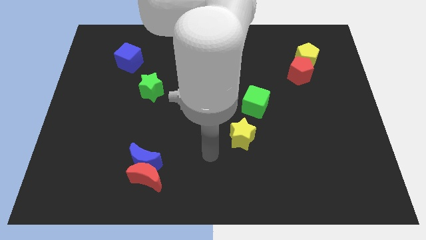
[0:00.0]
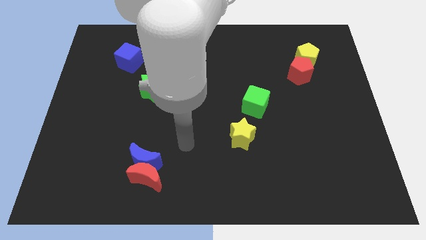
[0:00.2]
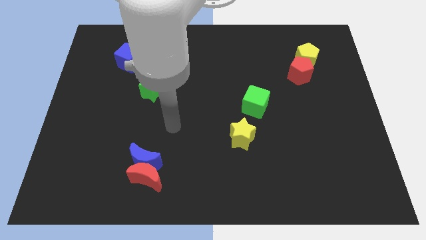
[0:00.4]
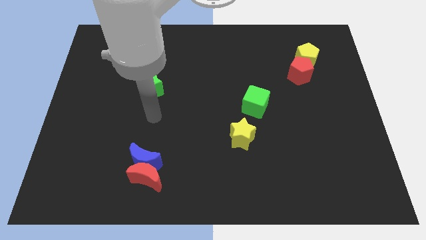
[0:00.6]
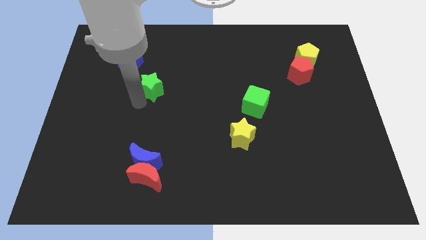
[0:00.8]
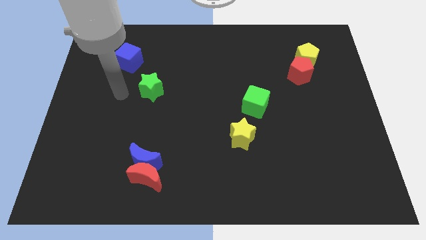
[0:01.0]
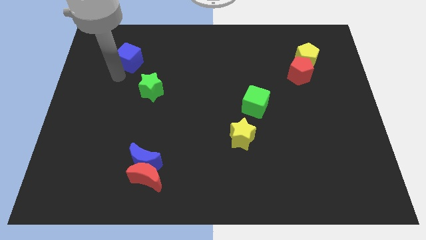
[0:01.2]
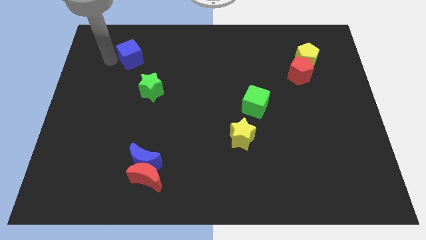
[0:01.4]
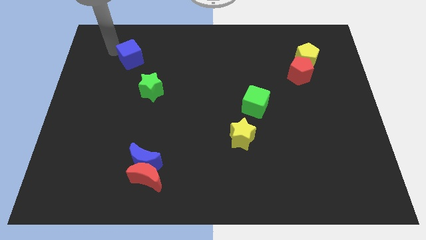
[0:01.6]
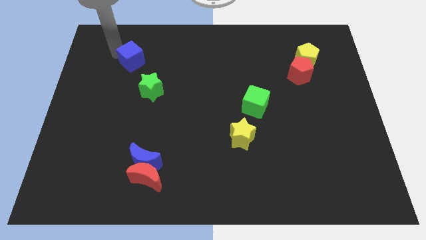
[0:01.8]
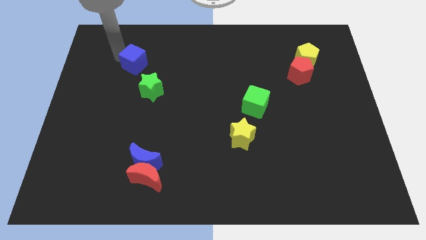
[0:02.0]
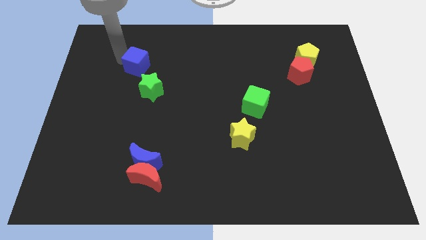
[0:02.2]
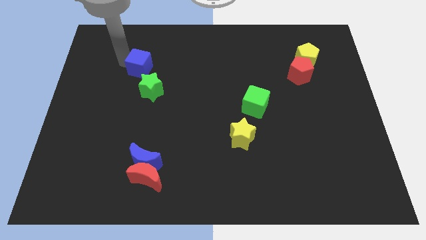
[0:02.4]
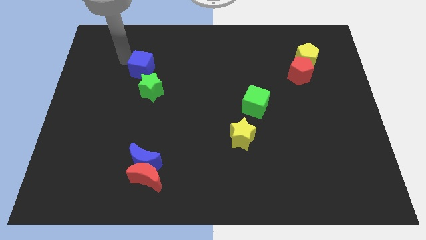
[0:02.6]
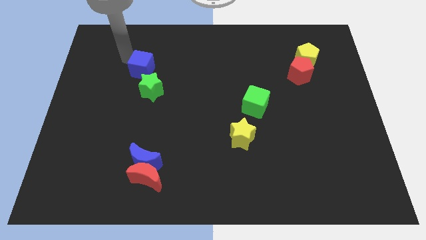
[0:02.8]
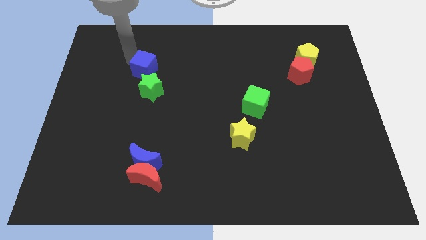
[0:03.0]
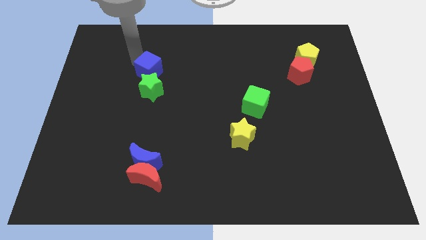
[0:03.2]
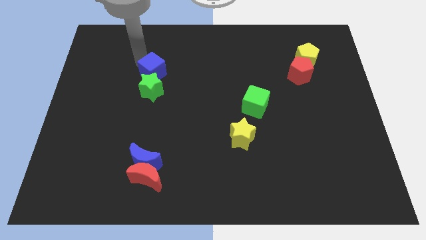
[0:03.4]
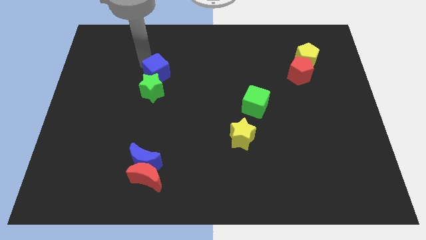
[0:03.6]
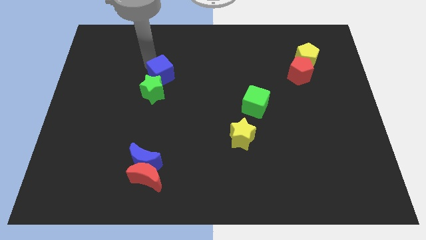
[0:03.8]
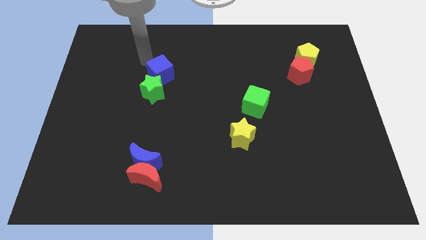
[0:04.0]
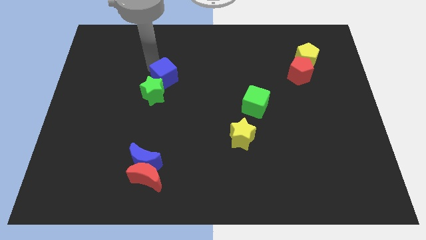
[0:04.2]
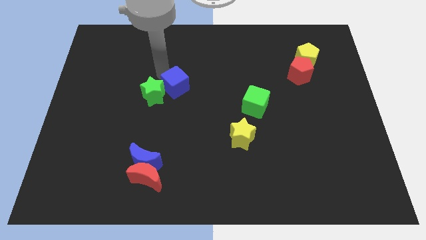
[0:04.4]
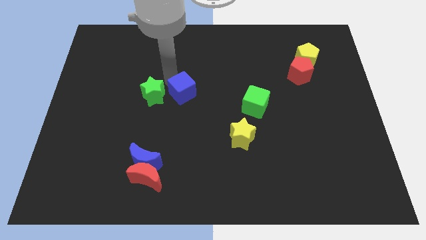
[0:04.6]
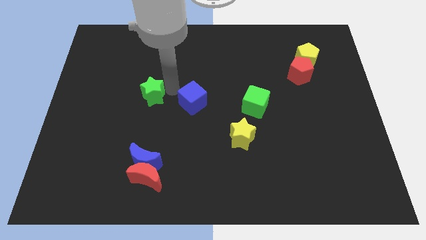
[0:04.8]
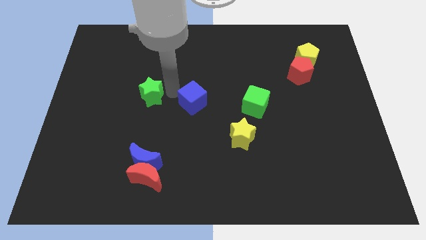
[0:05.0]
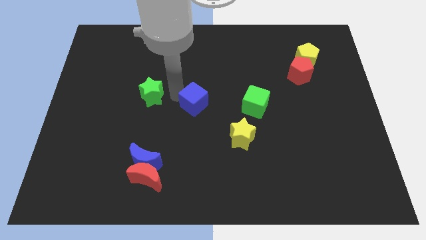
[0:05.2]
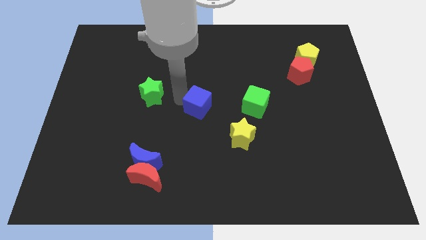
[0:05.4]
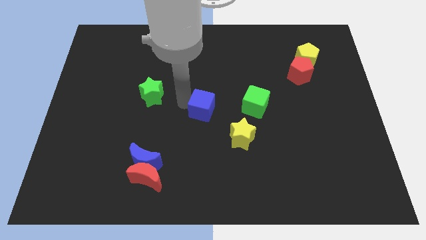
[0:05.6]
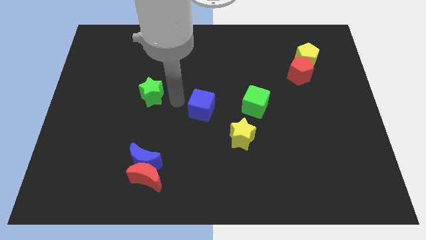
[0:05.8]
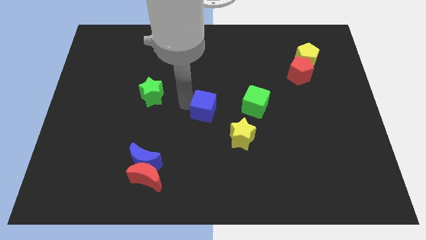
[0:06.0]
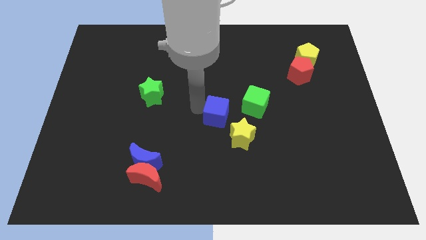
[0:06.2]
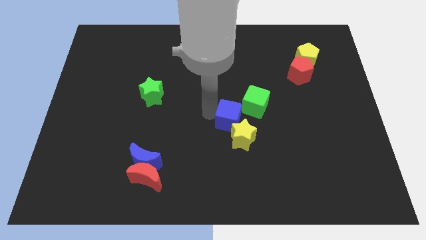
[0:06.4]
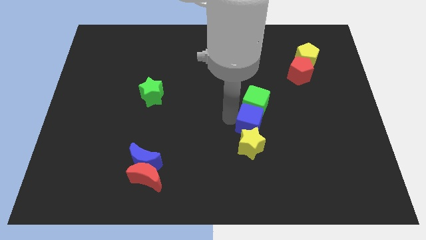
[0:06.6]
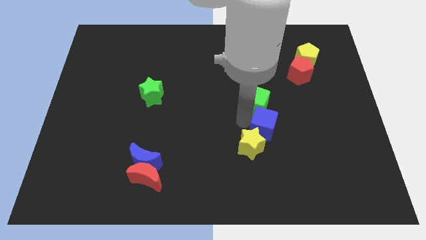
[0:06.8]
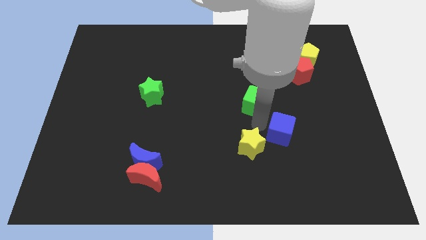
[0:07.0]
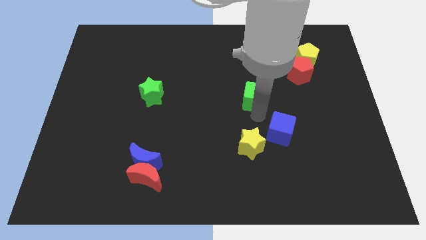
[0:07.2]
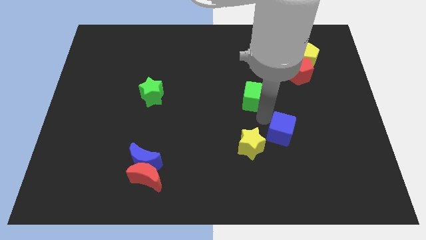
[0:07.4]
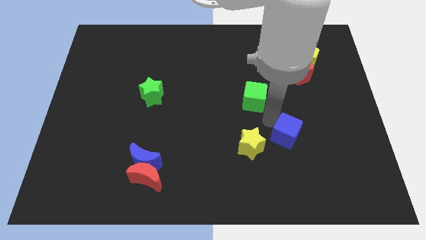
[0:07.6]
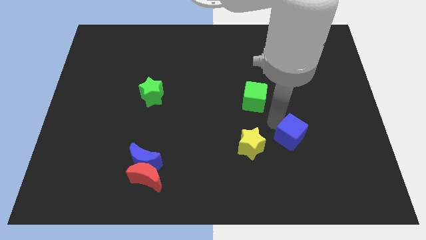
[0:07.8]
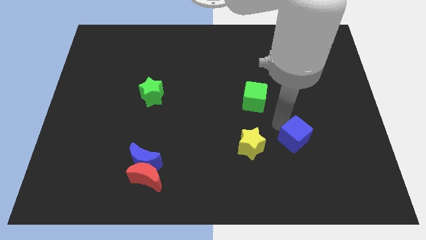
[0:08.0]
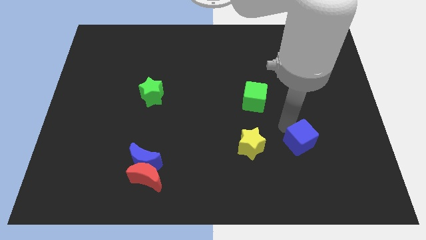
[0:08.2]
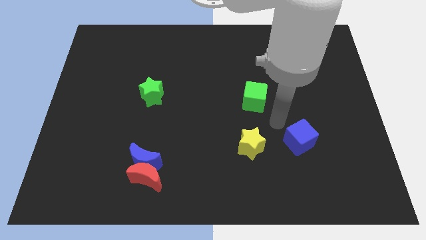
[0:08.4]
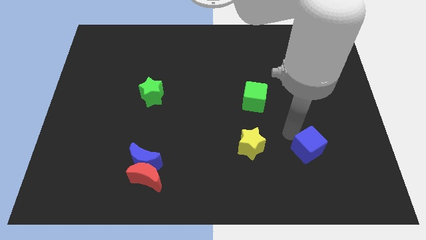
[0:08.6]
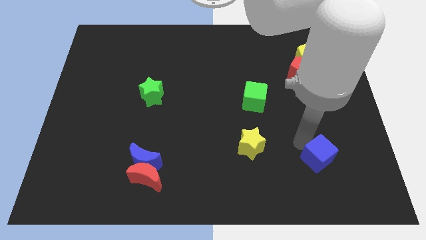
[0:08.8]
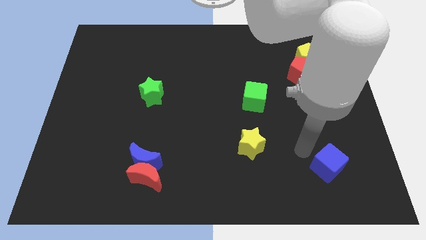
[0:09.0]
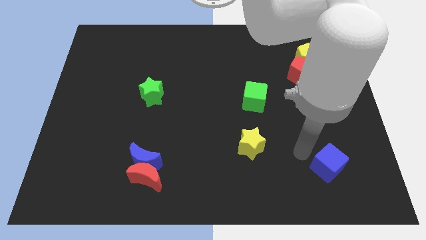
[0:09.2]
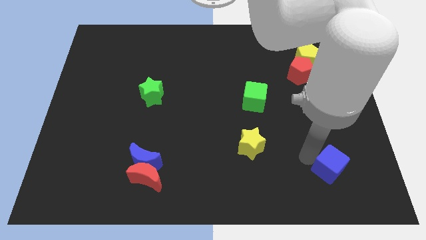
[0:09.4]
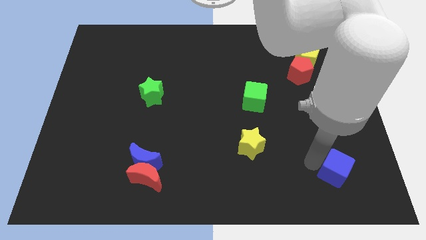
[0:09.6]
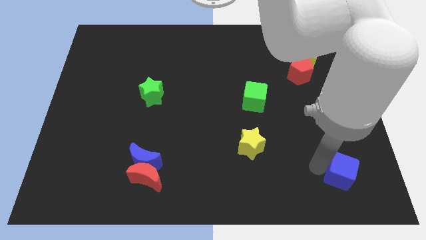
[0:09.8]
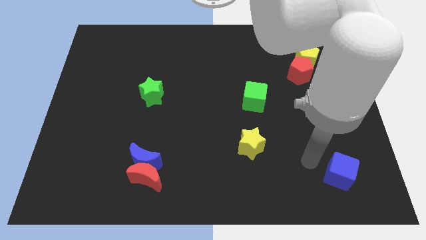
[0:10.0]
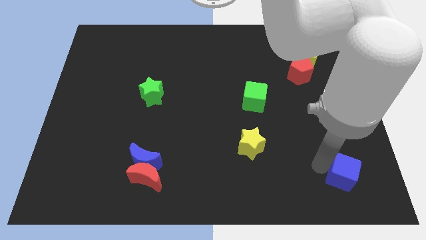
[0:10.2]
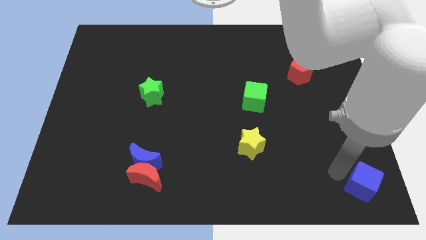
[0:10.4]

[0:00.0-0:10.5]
move the blue cube to the bottom right

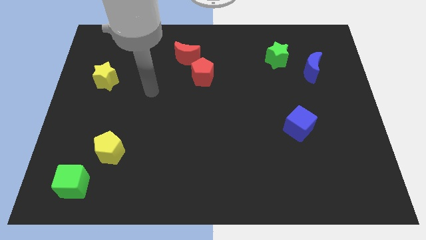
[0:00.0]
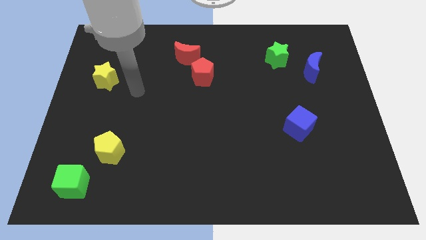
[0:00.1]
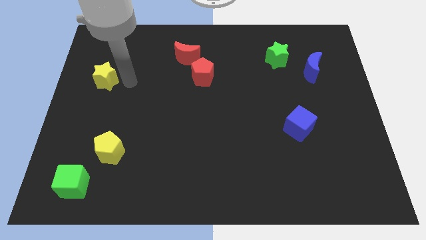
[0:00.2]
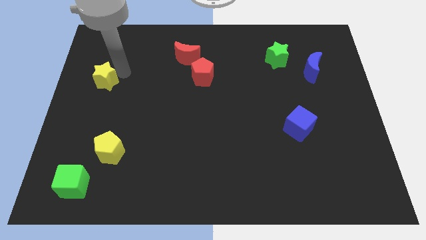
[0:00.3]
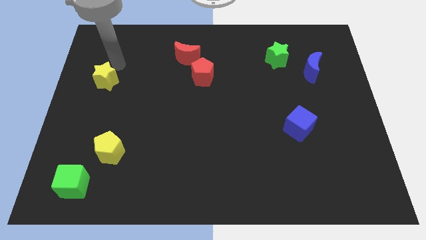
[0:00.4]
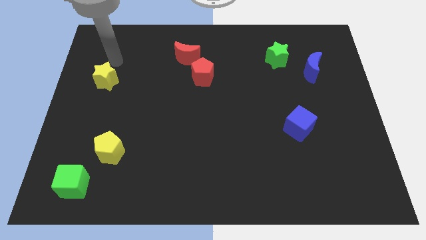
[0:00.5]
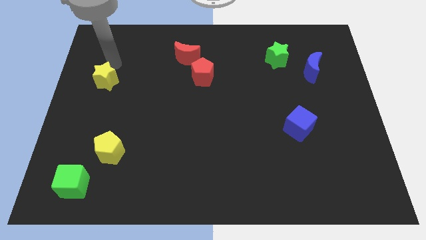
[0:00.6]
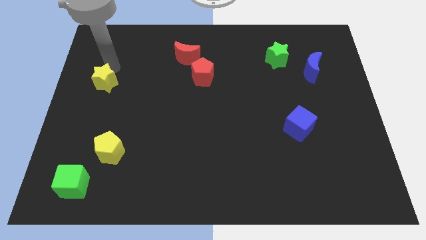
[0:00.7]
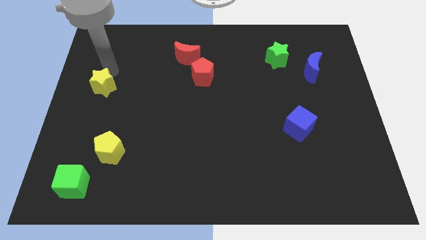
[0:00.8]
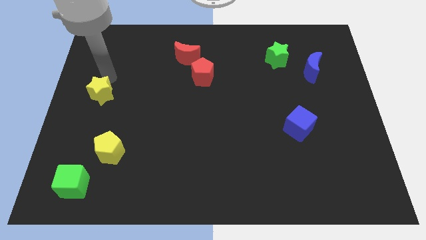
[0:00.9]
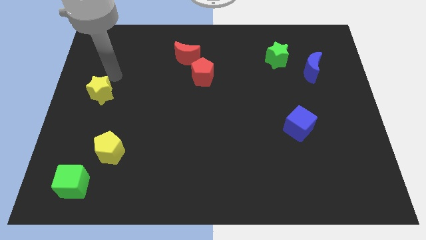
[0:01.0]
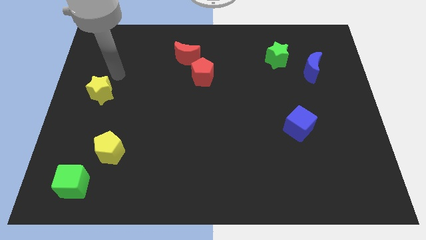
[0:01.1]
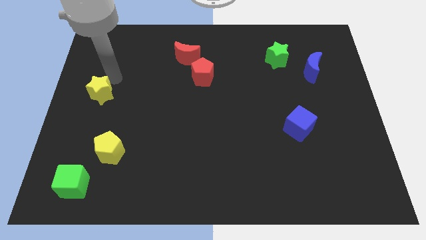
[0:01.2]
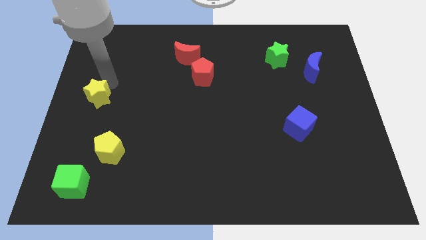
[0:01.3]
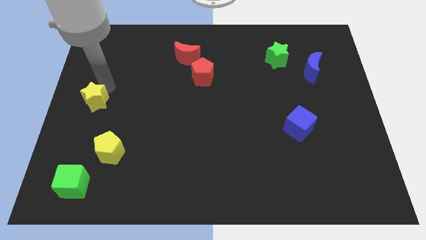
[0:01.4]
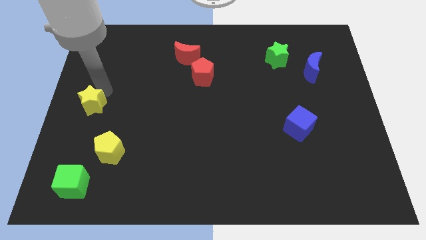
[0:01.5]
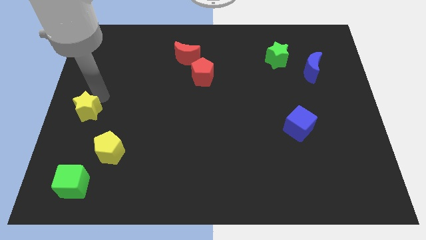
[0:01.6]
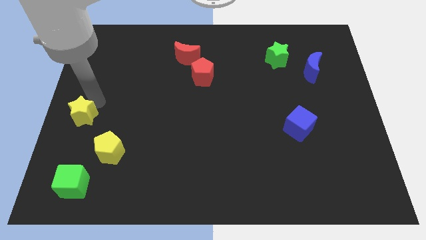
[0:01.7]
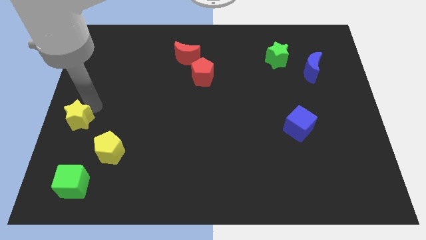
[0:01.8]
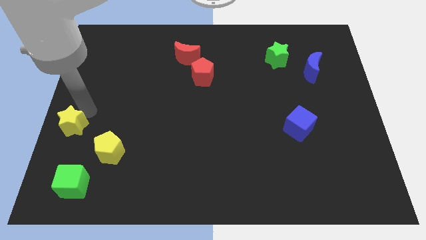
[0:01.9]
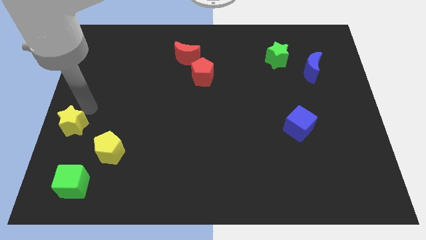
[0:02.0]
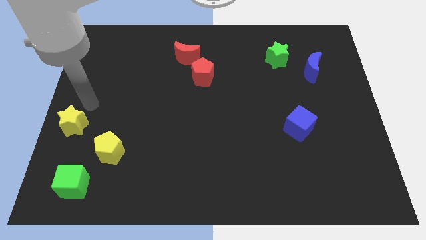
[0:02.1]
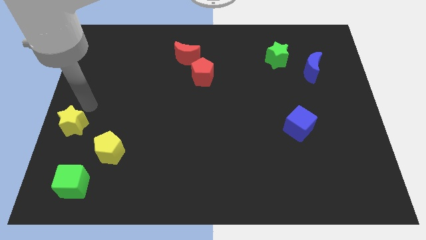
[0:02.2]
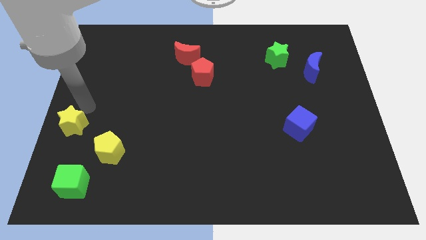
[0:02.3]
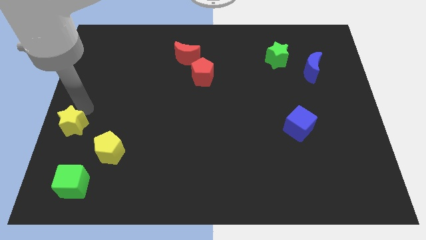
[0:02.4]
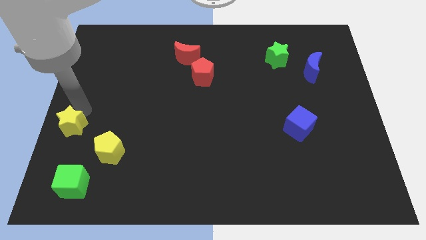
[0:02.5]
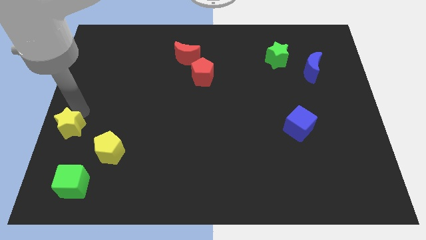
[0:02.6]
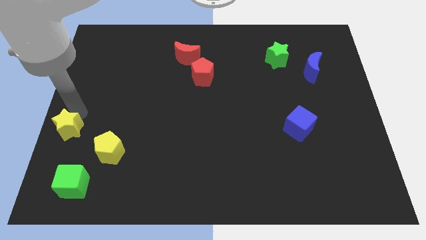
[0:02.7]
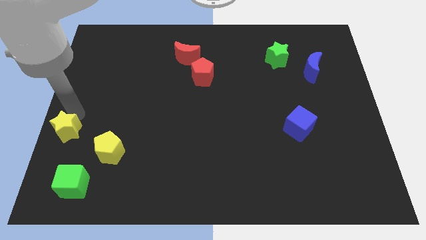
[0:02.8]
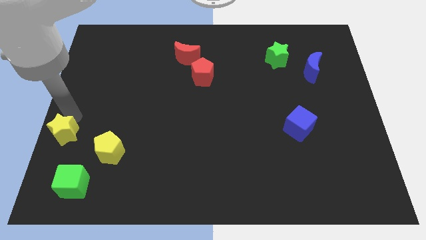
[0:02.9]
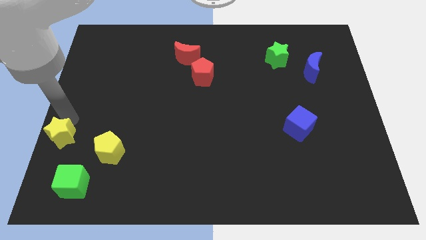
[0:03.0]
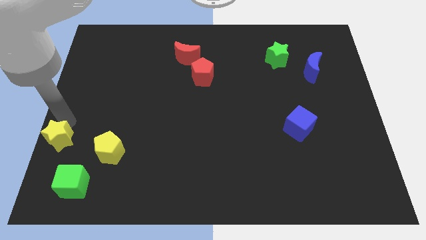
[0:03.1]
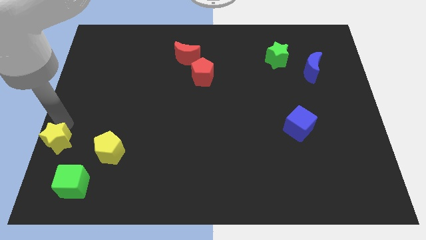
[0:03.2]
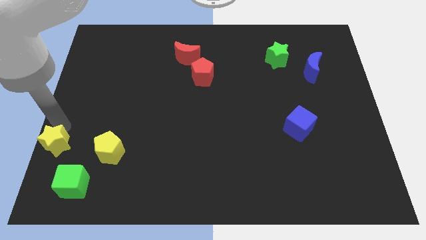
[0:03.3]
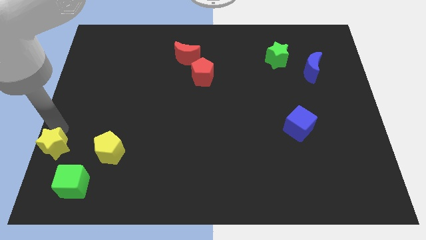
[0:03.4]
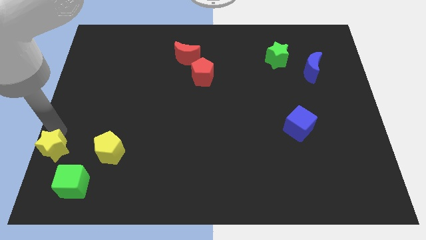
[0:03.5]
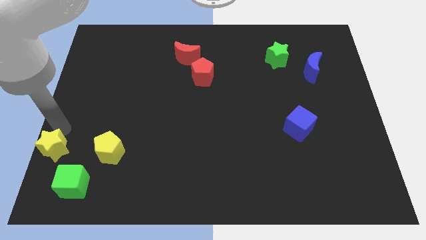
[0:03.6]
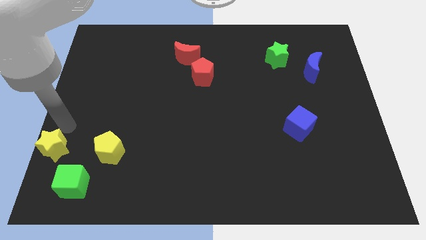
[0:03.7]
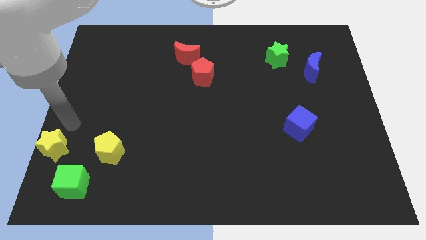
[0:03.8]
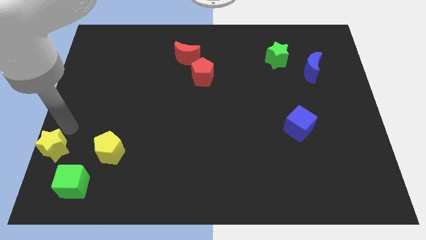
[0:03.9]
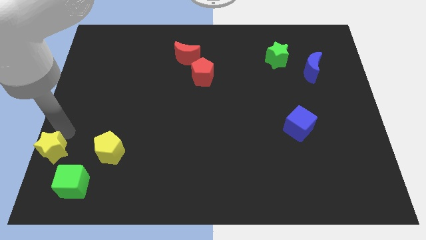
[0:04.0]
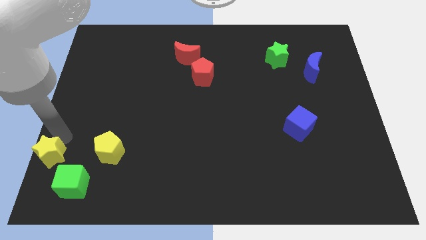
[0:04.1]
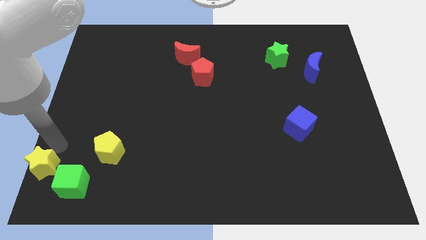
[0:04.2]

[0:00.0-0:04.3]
slide the yellow star to the lower left corner
